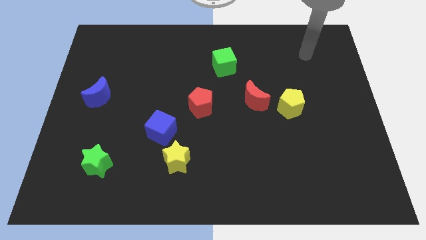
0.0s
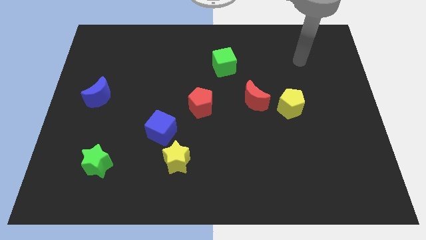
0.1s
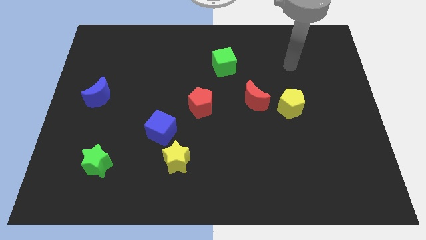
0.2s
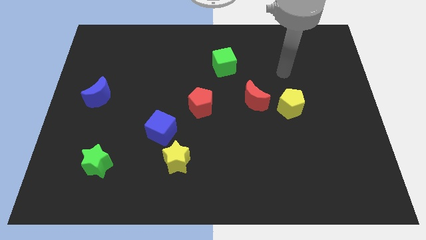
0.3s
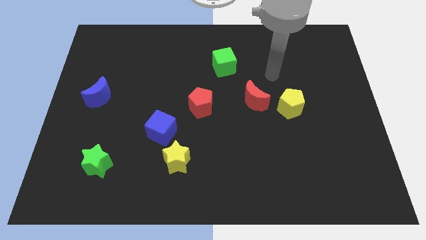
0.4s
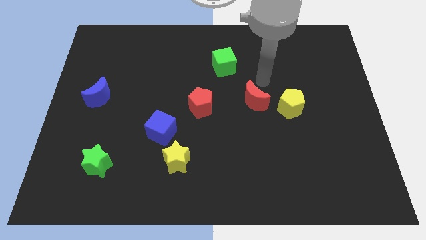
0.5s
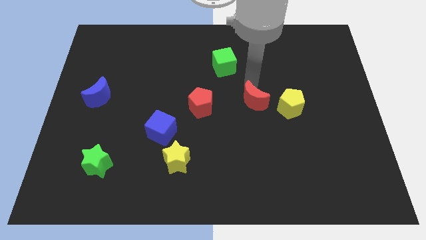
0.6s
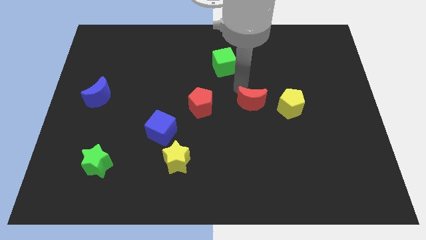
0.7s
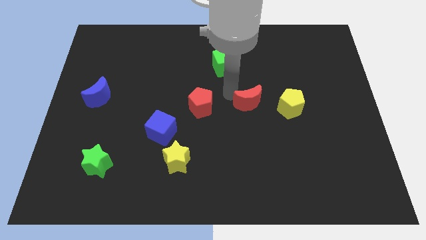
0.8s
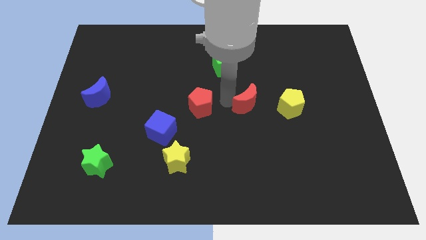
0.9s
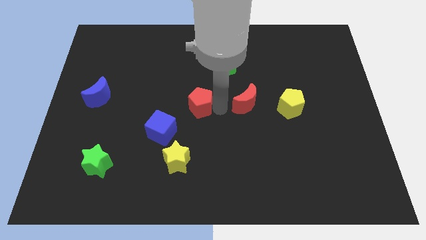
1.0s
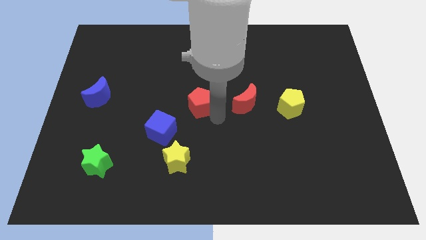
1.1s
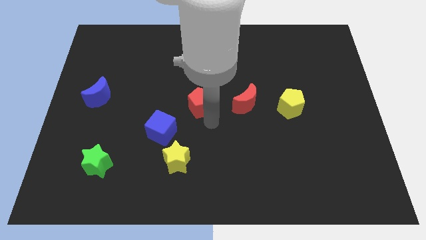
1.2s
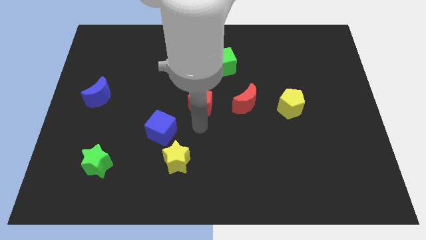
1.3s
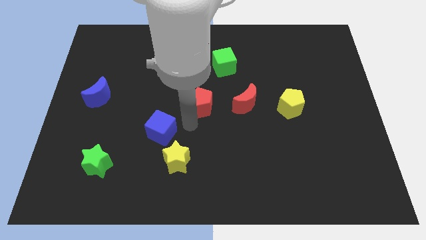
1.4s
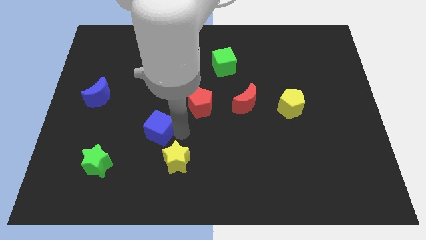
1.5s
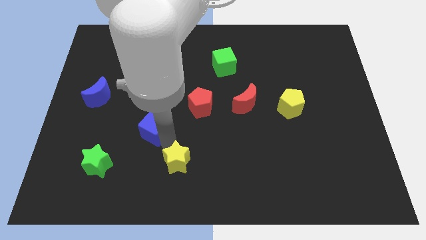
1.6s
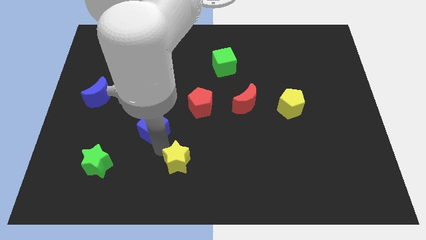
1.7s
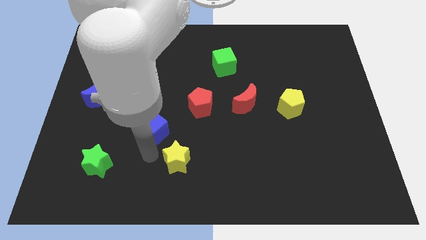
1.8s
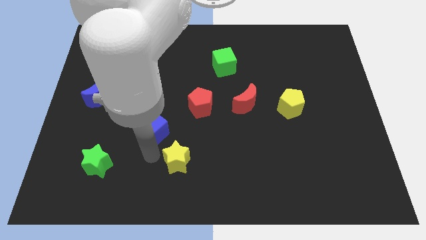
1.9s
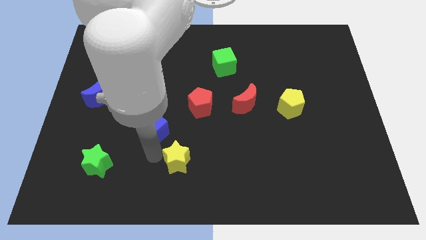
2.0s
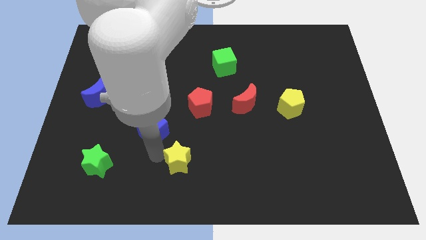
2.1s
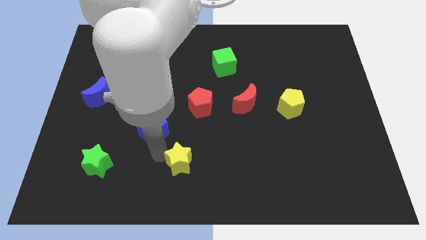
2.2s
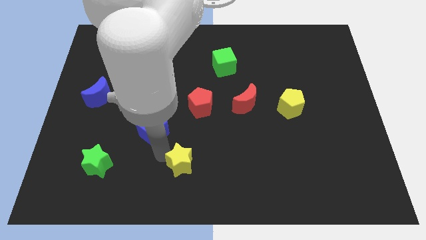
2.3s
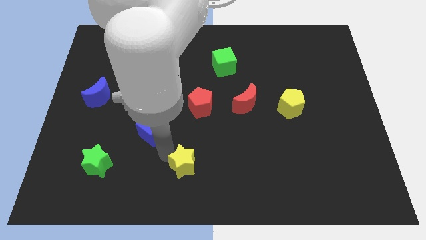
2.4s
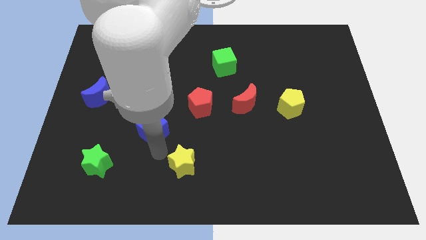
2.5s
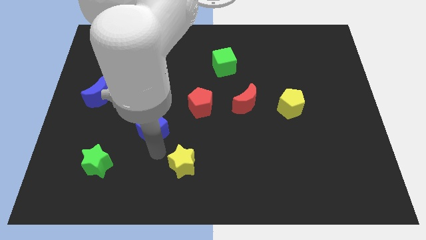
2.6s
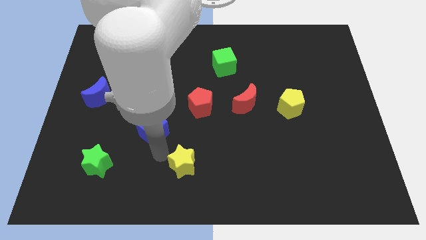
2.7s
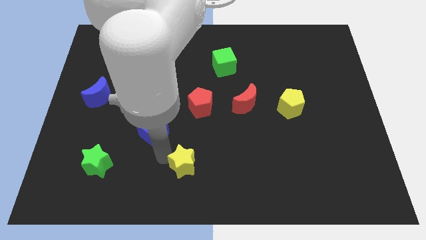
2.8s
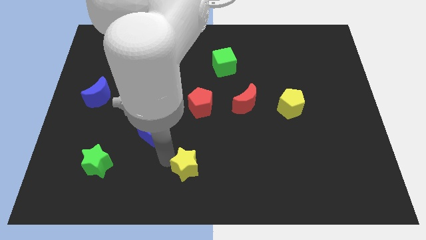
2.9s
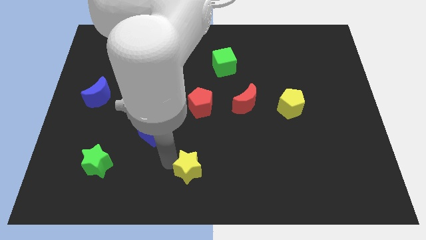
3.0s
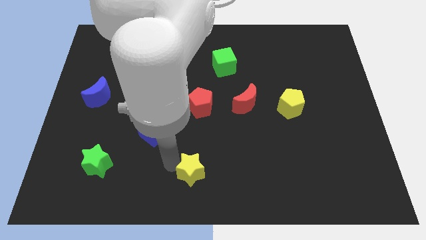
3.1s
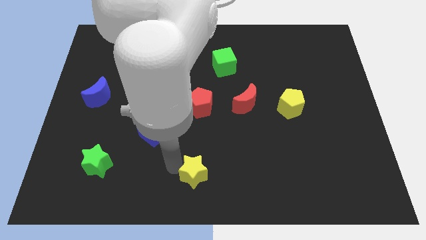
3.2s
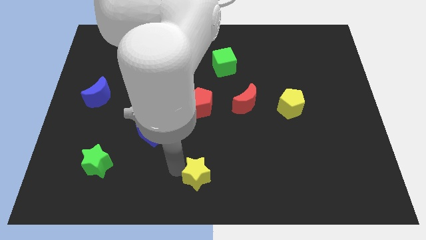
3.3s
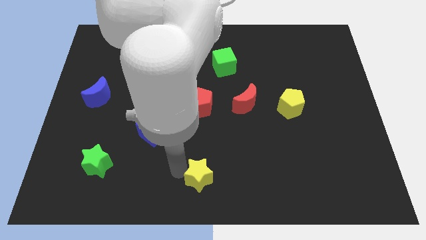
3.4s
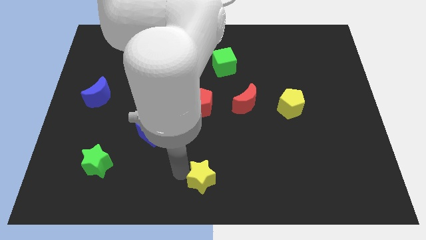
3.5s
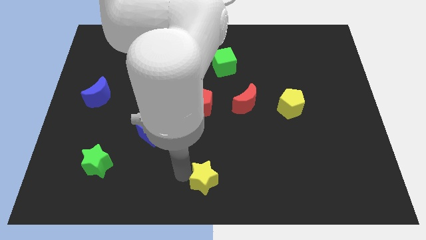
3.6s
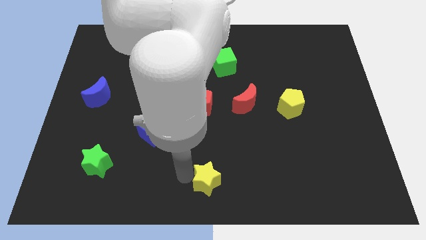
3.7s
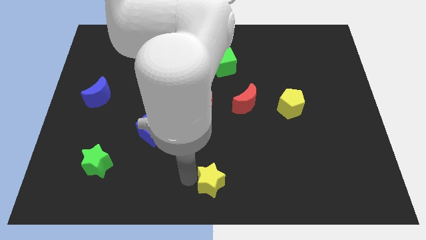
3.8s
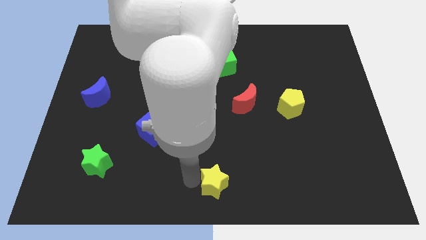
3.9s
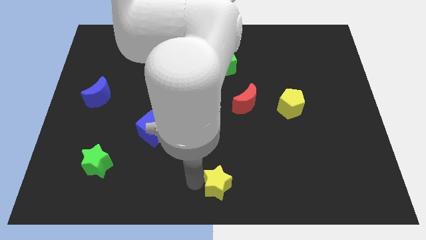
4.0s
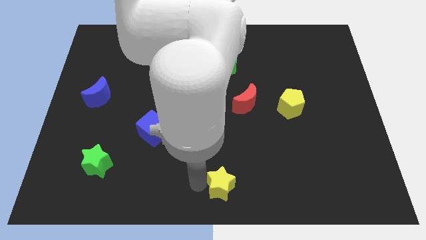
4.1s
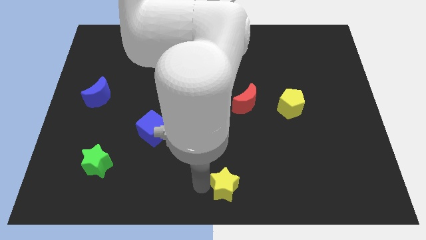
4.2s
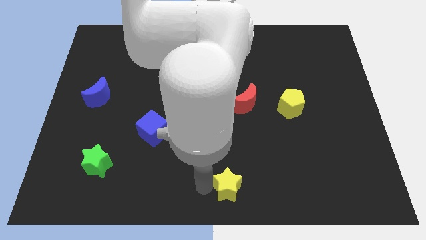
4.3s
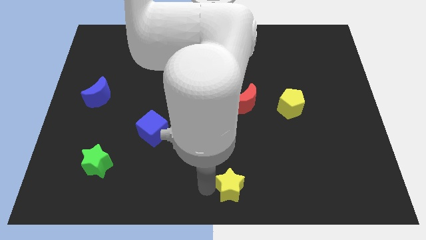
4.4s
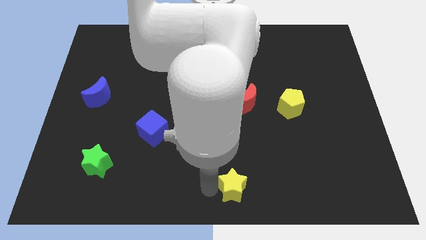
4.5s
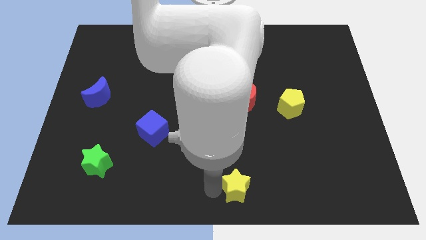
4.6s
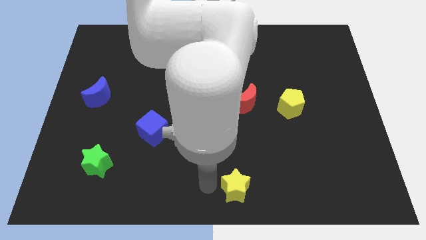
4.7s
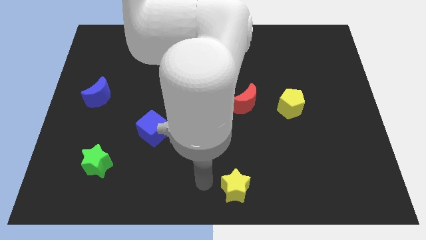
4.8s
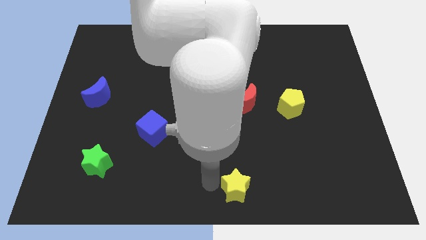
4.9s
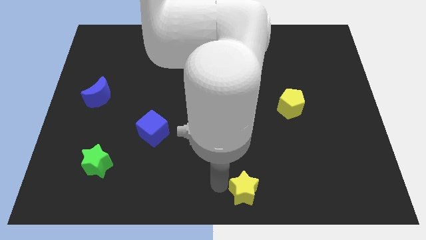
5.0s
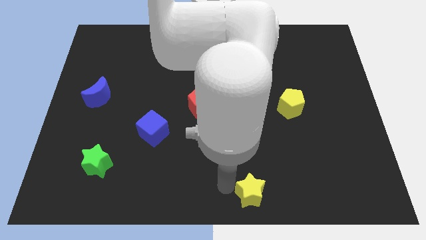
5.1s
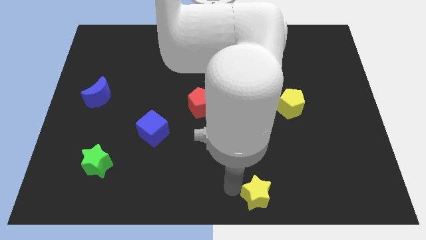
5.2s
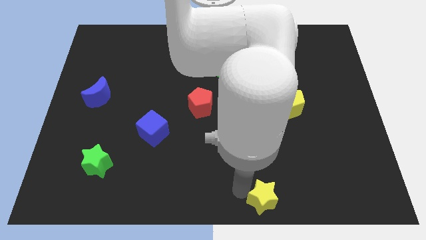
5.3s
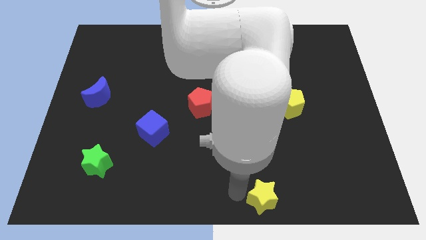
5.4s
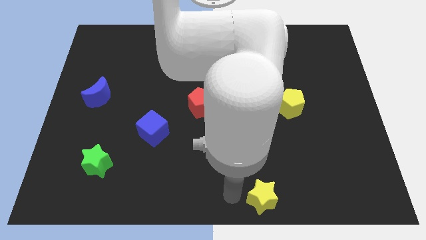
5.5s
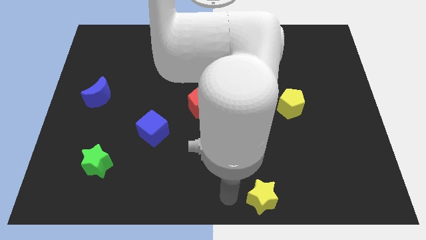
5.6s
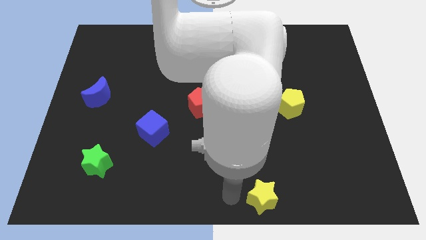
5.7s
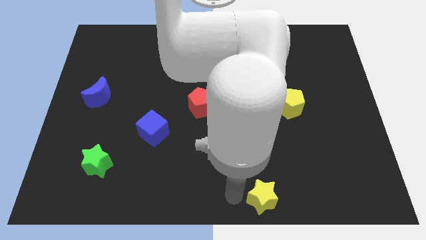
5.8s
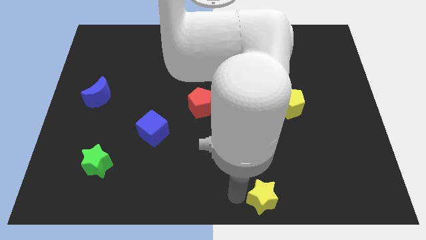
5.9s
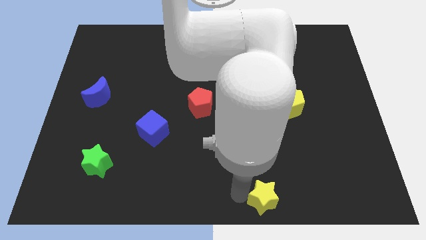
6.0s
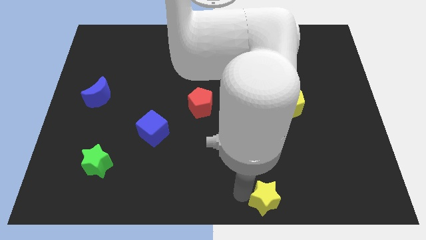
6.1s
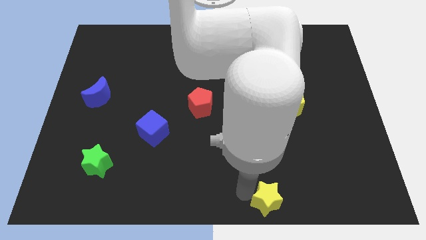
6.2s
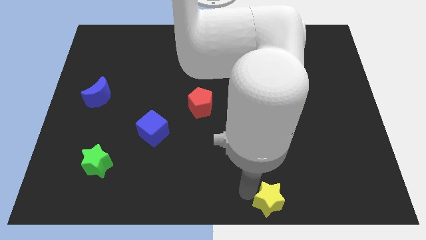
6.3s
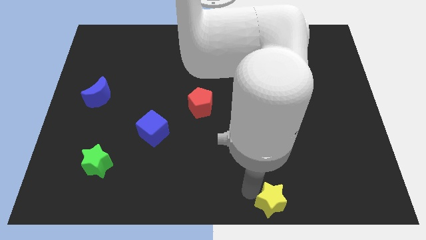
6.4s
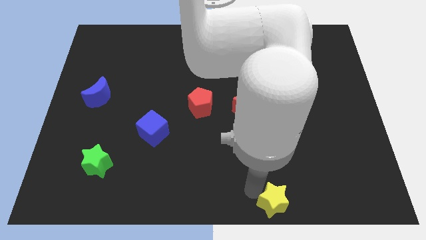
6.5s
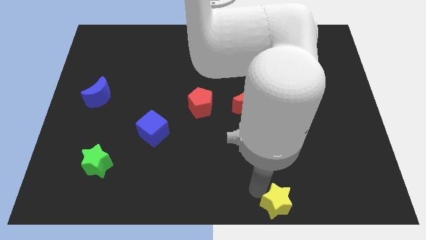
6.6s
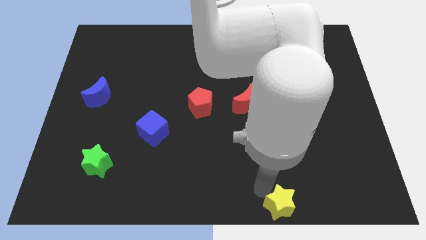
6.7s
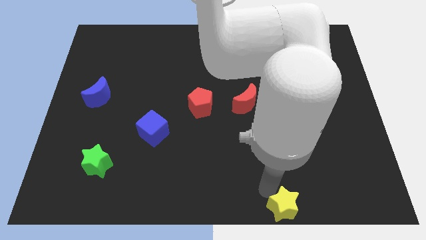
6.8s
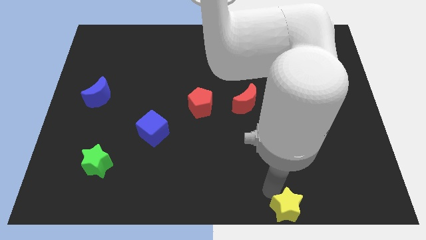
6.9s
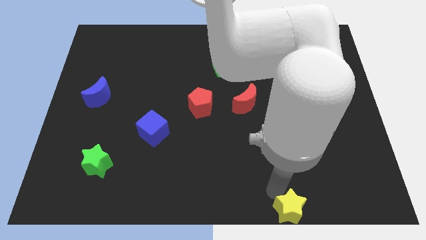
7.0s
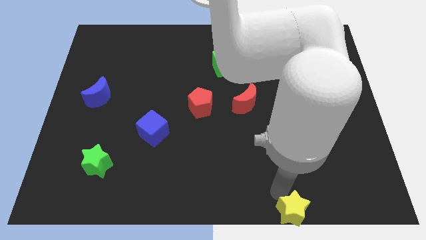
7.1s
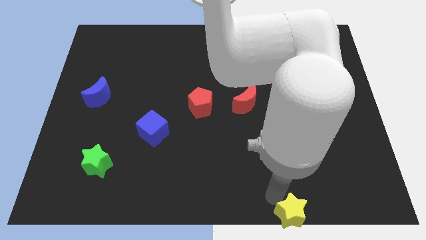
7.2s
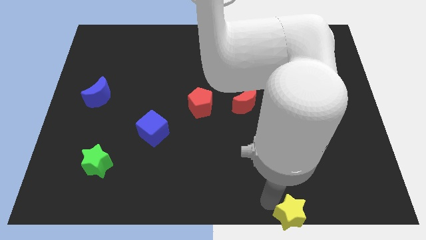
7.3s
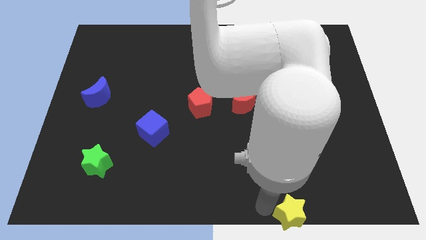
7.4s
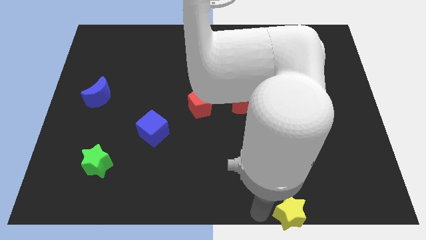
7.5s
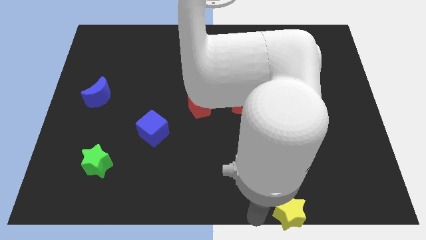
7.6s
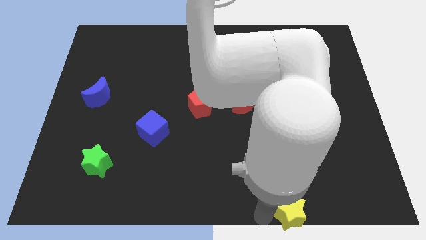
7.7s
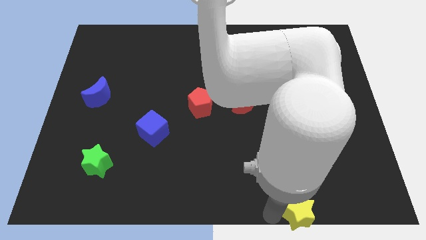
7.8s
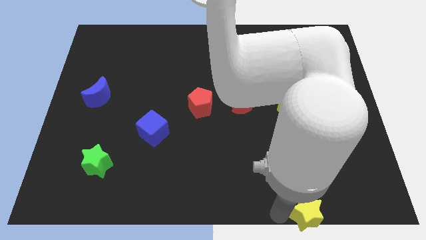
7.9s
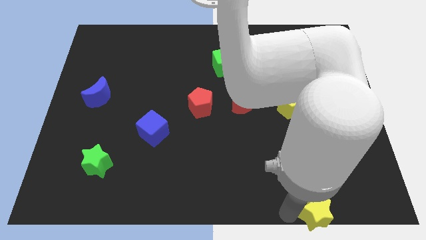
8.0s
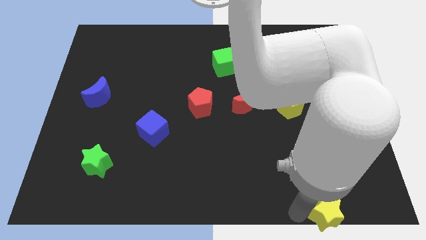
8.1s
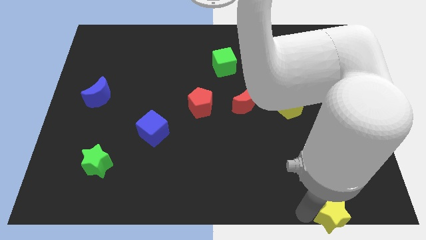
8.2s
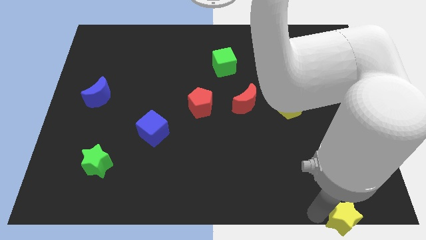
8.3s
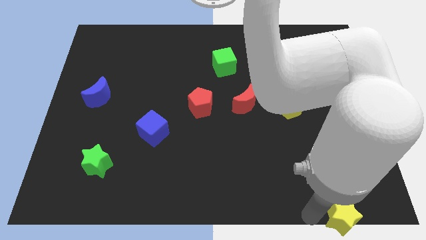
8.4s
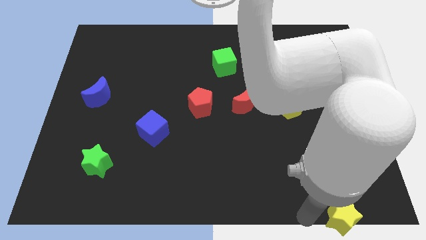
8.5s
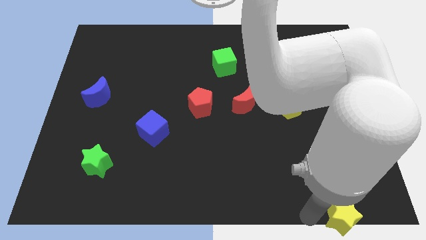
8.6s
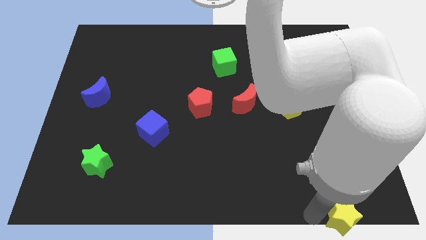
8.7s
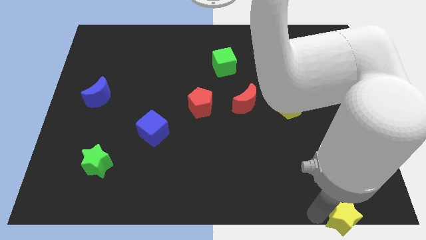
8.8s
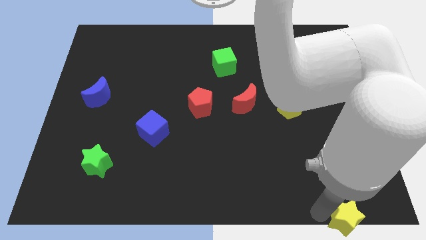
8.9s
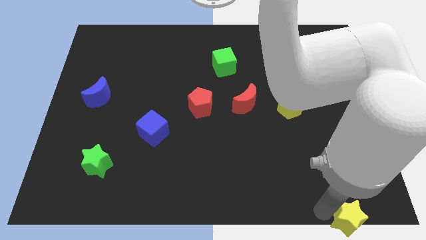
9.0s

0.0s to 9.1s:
put the yellow star to the bottom right
